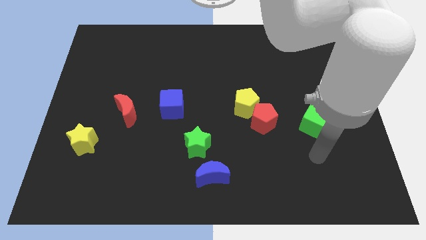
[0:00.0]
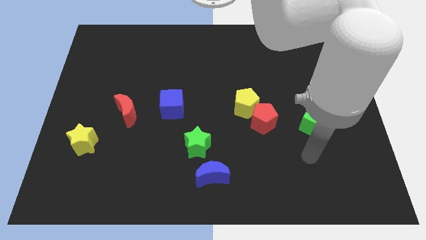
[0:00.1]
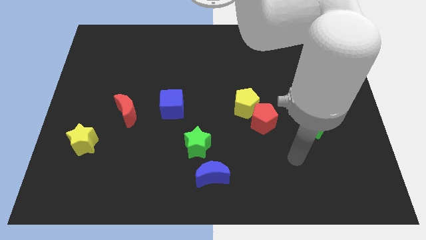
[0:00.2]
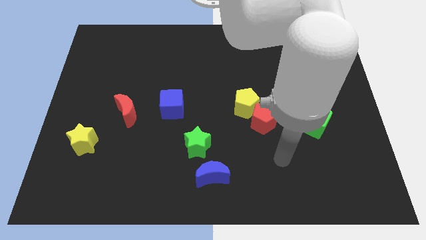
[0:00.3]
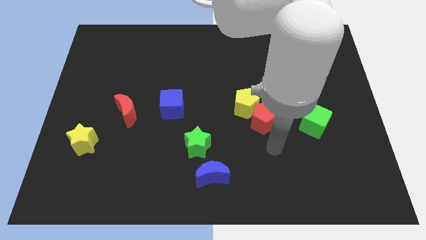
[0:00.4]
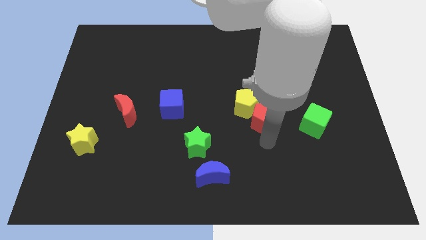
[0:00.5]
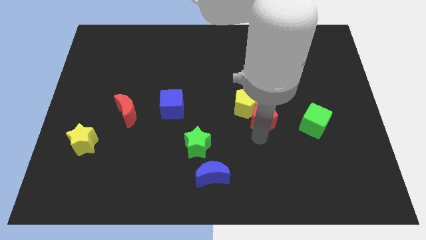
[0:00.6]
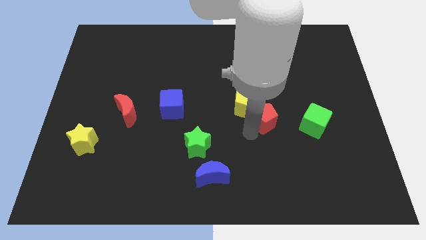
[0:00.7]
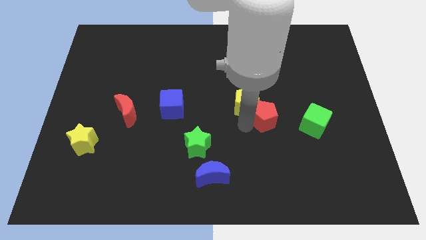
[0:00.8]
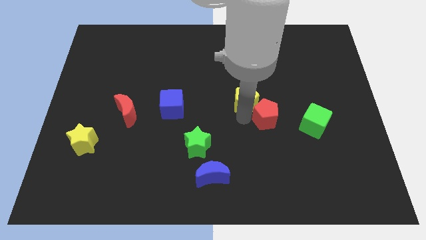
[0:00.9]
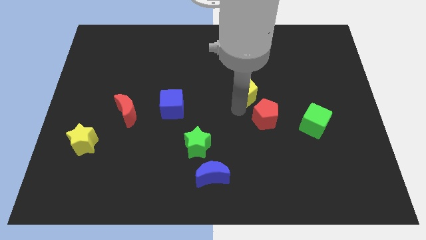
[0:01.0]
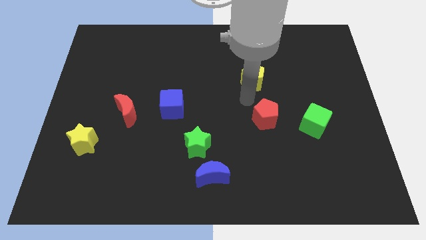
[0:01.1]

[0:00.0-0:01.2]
pull the red pentagon apart from the yellow pentagon

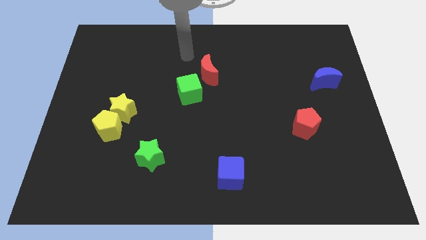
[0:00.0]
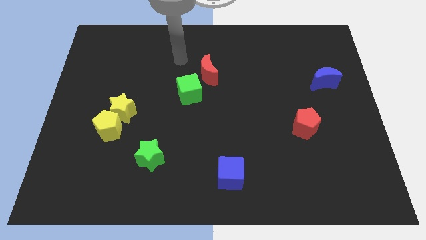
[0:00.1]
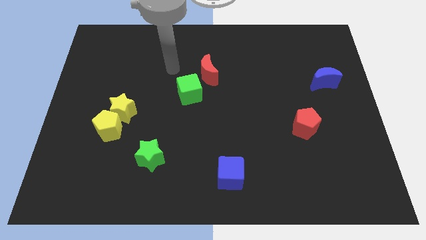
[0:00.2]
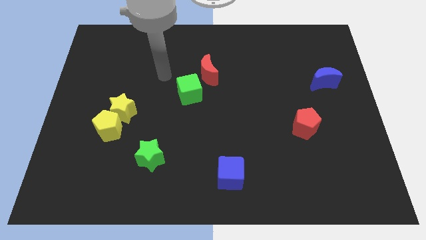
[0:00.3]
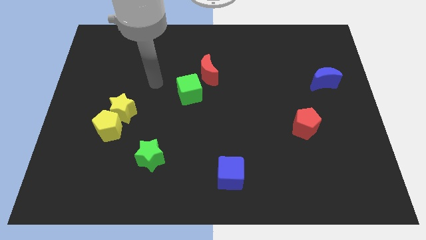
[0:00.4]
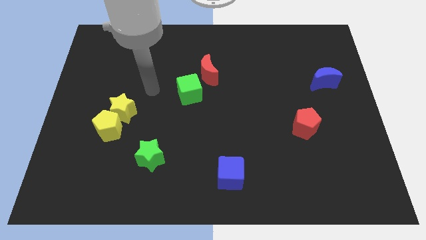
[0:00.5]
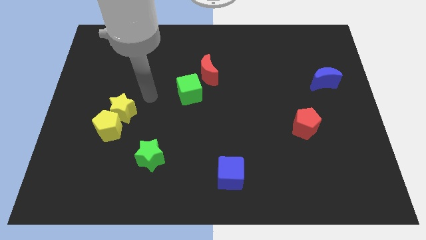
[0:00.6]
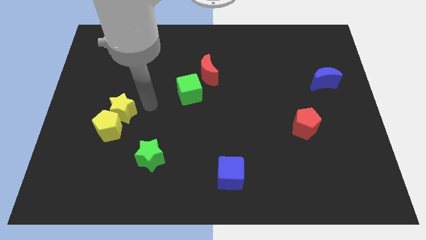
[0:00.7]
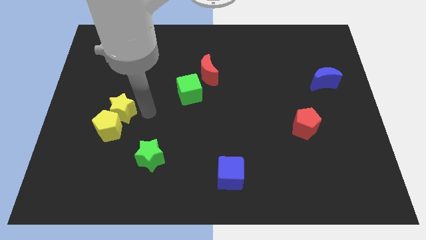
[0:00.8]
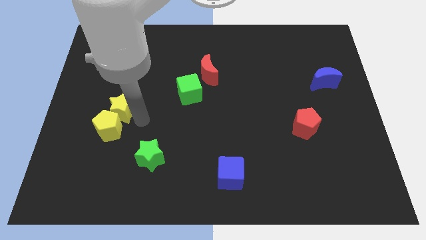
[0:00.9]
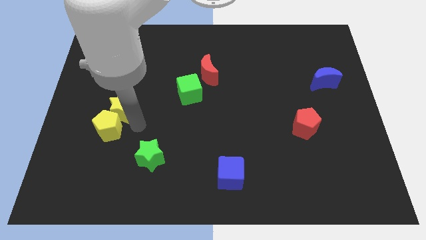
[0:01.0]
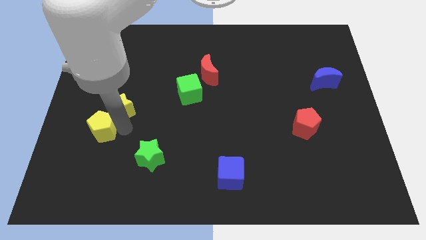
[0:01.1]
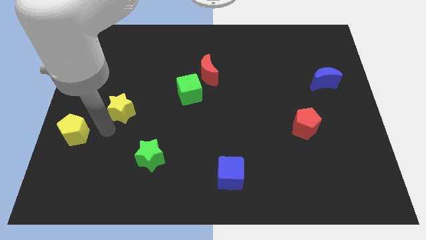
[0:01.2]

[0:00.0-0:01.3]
move the yellow star away from the yellow pentagon

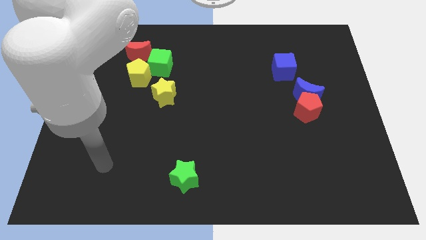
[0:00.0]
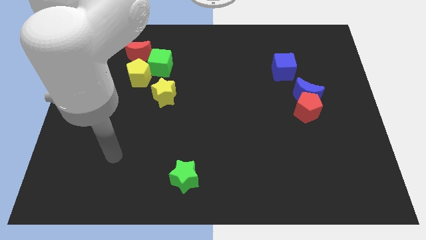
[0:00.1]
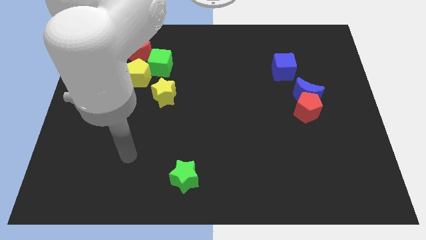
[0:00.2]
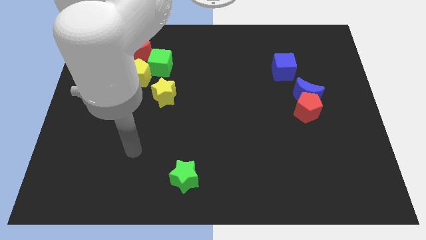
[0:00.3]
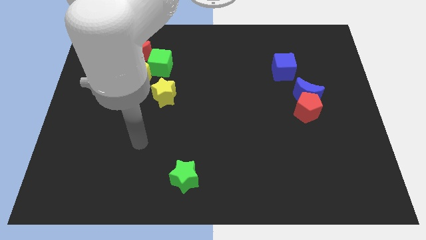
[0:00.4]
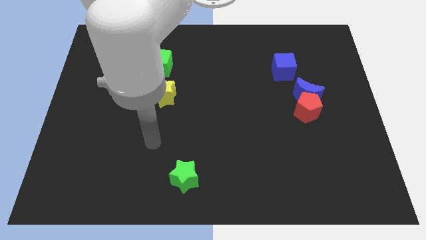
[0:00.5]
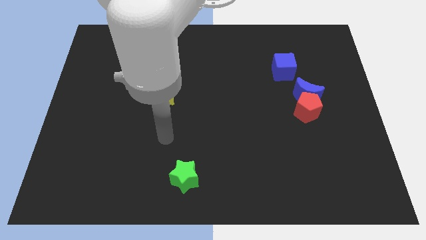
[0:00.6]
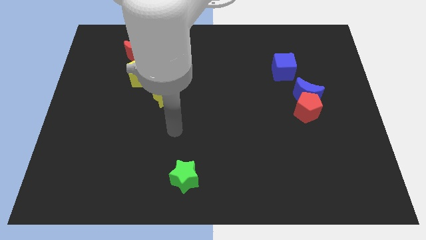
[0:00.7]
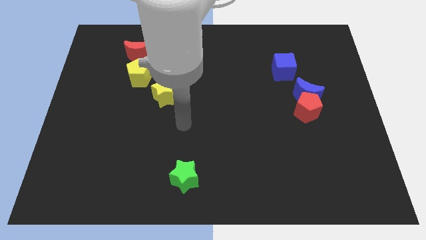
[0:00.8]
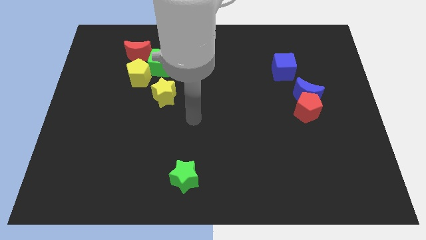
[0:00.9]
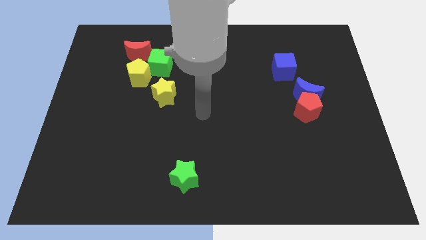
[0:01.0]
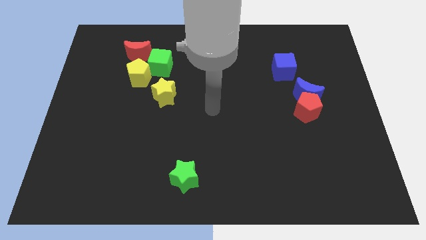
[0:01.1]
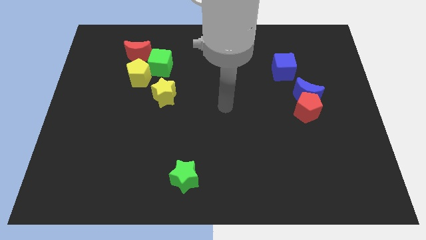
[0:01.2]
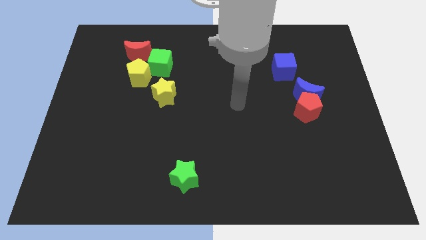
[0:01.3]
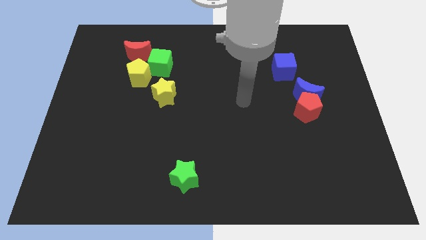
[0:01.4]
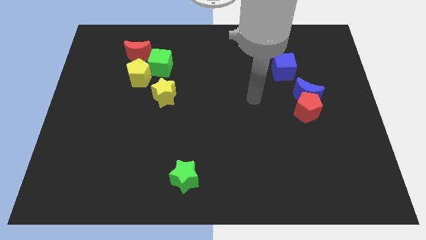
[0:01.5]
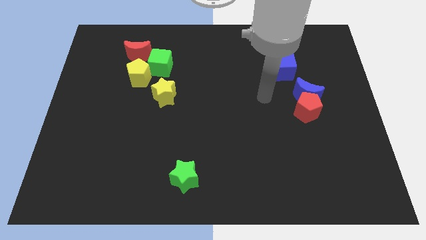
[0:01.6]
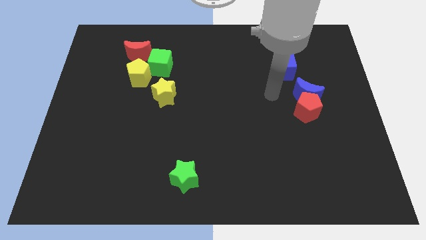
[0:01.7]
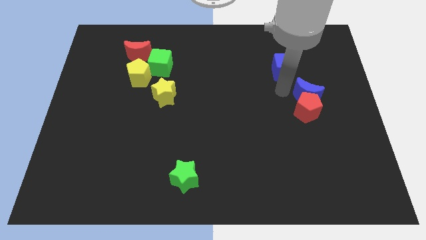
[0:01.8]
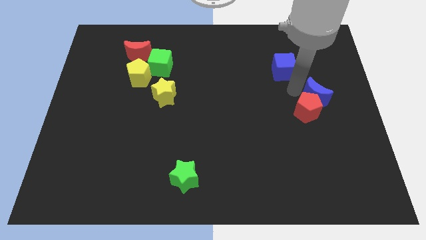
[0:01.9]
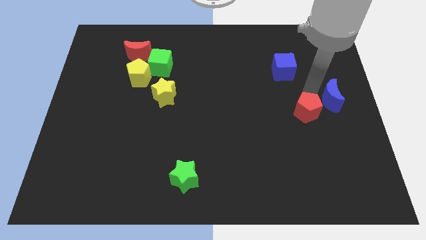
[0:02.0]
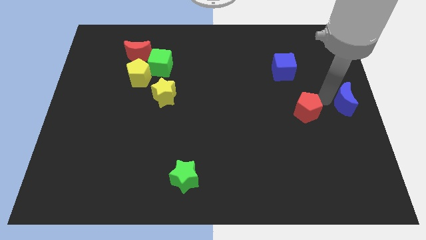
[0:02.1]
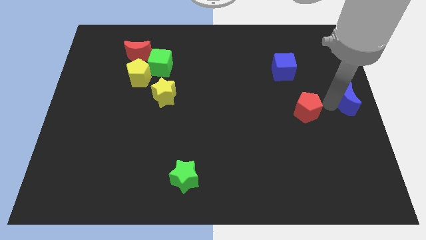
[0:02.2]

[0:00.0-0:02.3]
separate the red pentagon from the blue moon

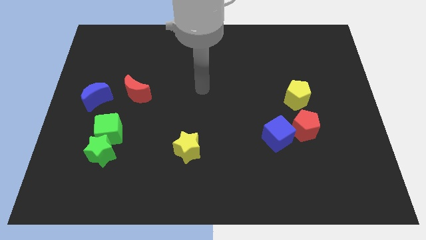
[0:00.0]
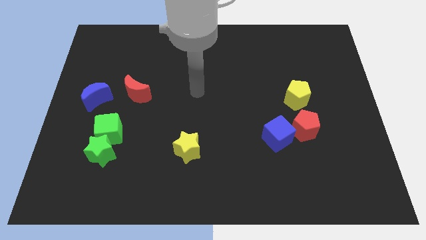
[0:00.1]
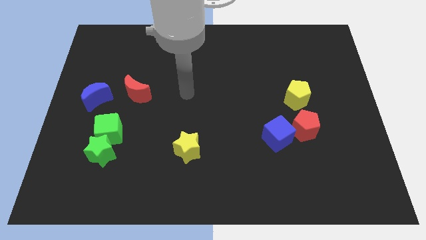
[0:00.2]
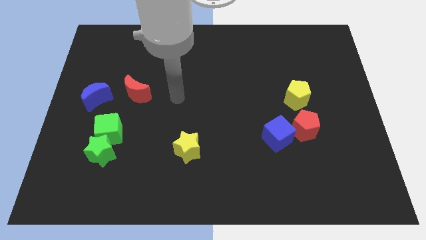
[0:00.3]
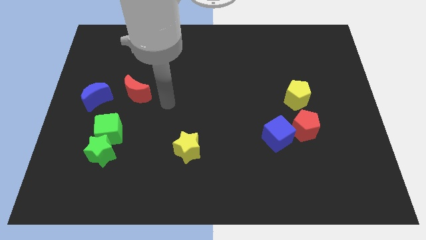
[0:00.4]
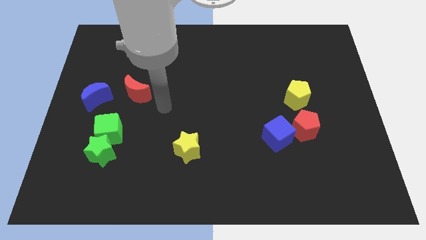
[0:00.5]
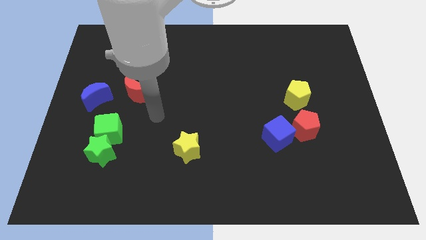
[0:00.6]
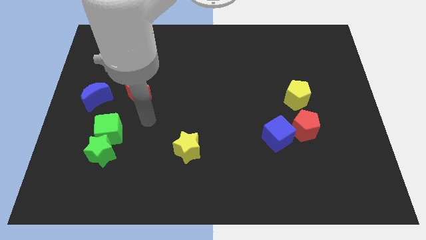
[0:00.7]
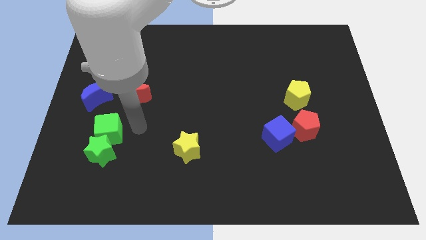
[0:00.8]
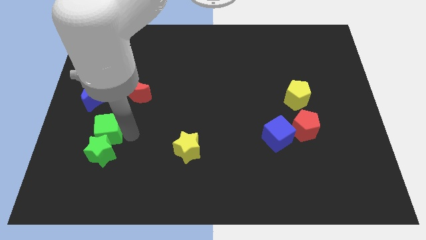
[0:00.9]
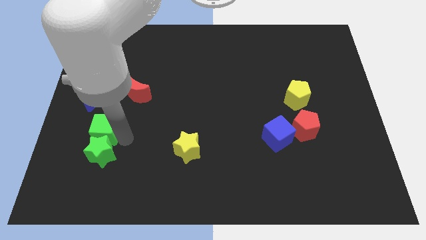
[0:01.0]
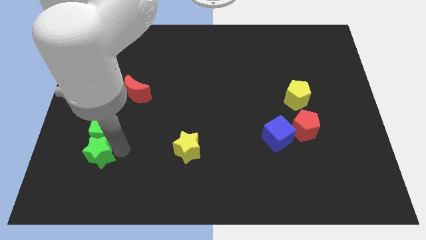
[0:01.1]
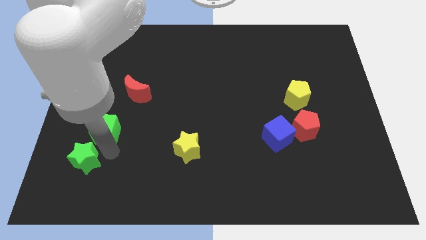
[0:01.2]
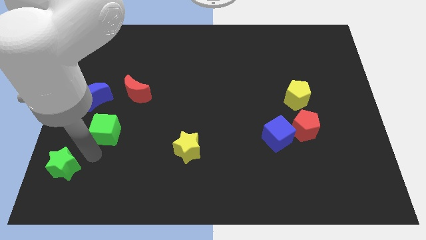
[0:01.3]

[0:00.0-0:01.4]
move the green cube away from the green star

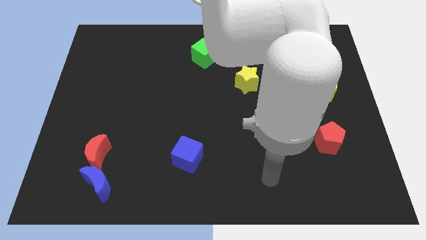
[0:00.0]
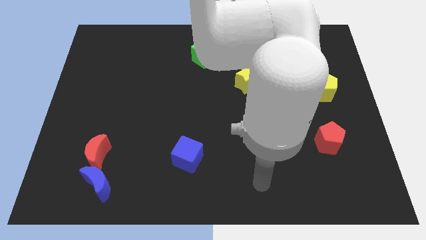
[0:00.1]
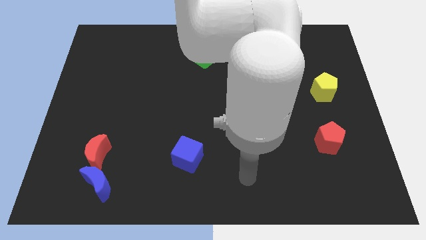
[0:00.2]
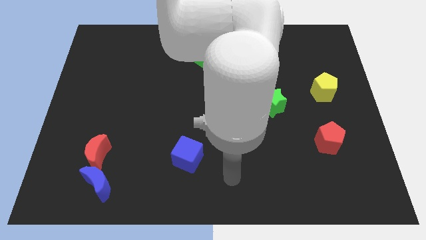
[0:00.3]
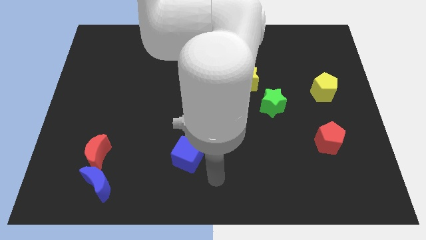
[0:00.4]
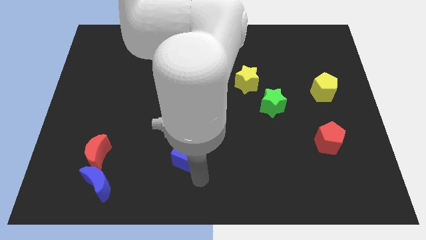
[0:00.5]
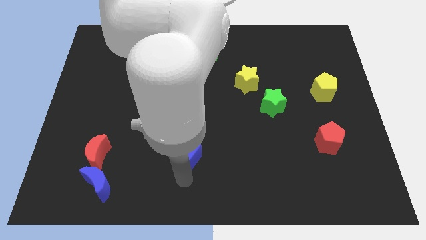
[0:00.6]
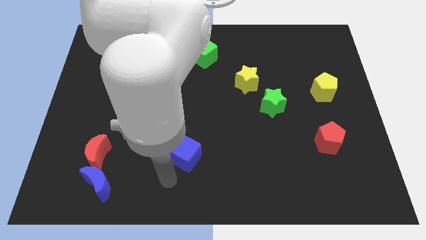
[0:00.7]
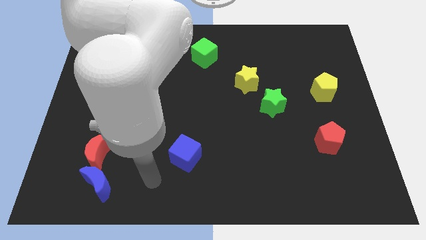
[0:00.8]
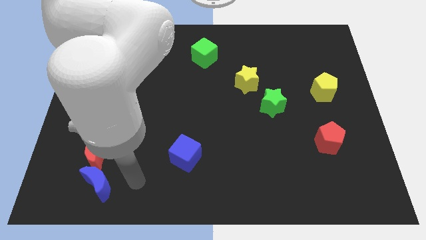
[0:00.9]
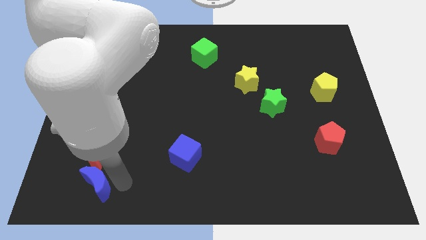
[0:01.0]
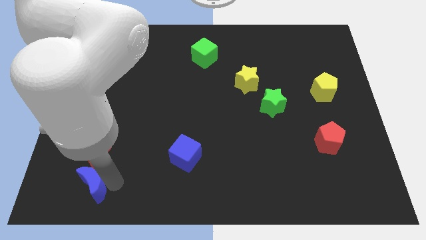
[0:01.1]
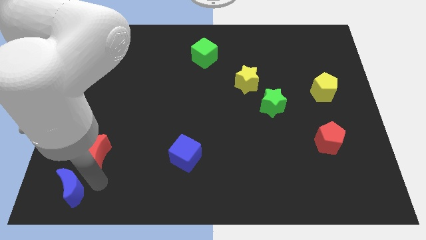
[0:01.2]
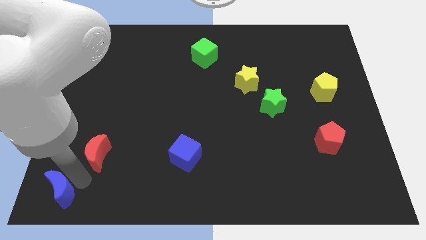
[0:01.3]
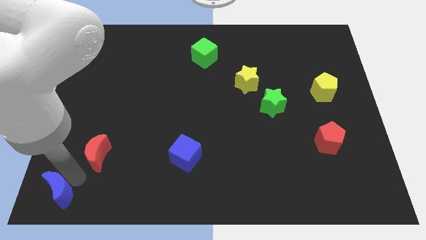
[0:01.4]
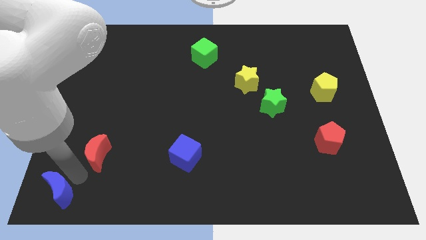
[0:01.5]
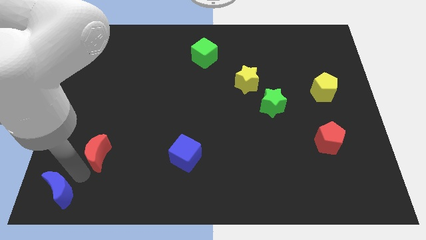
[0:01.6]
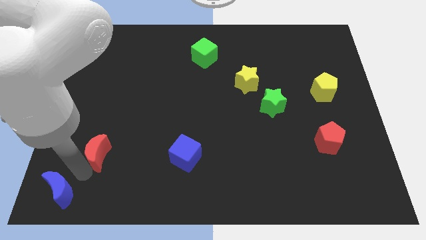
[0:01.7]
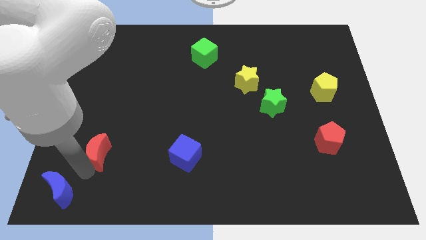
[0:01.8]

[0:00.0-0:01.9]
pull the red moon apart from the blue moon

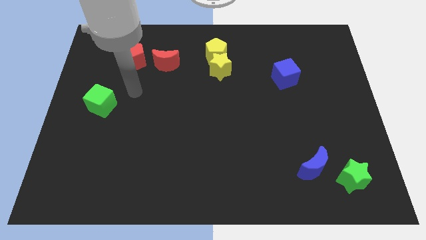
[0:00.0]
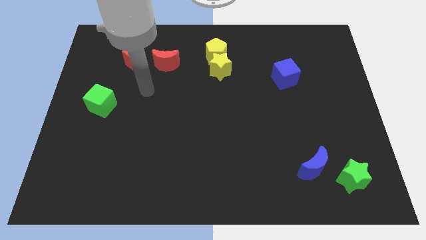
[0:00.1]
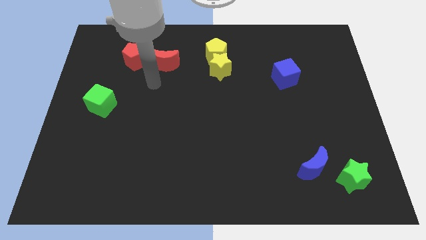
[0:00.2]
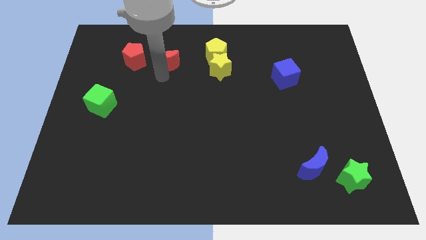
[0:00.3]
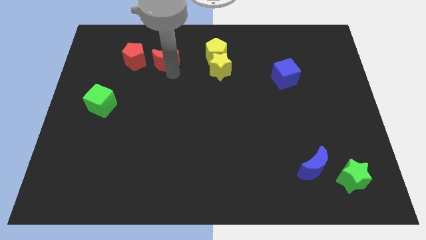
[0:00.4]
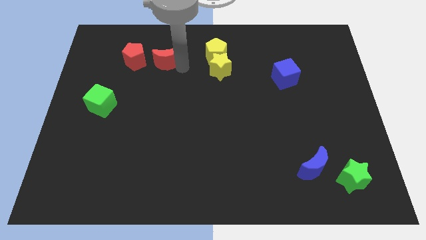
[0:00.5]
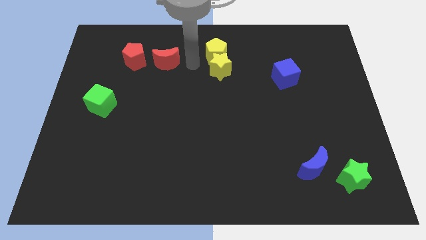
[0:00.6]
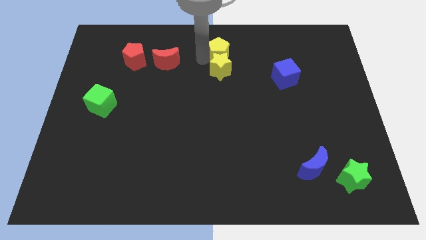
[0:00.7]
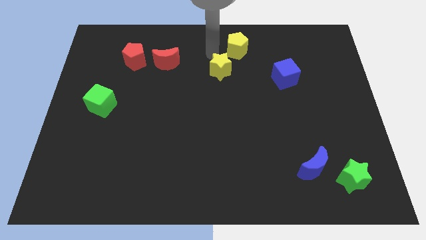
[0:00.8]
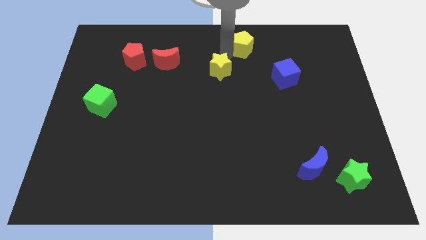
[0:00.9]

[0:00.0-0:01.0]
separate the yellow star from the yellow pentagon
